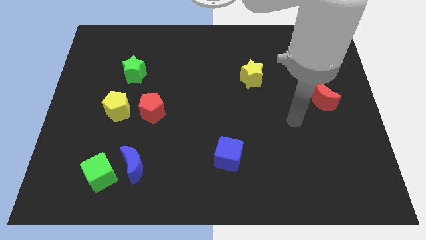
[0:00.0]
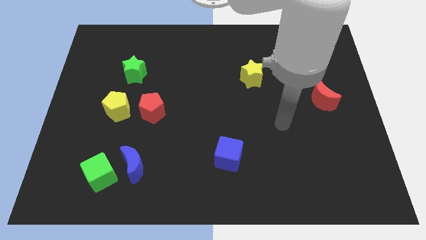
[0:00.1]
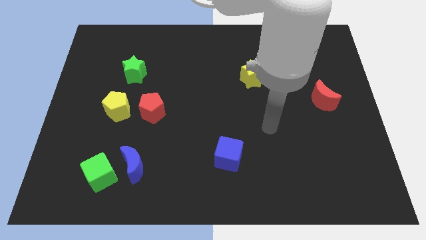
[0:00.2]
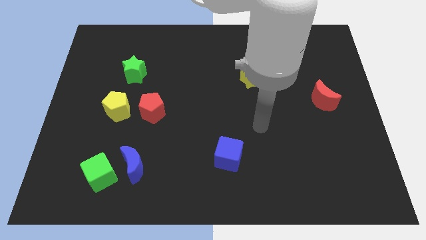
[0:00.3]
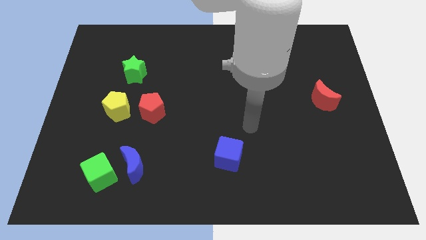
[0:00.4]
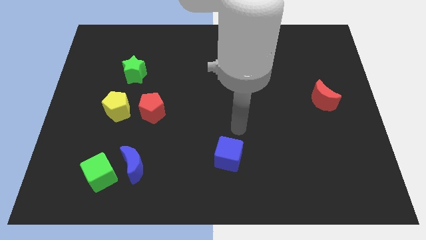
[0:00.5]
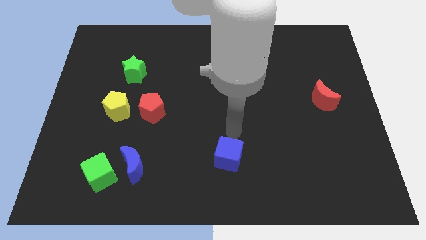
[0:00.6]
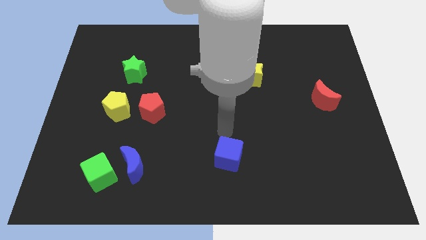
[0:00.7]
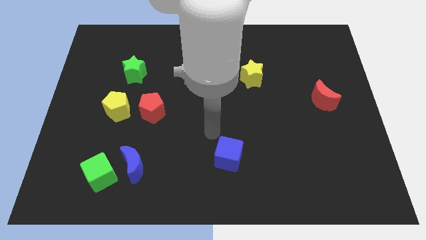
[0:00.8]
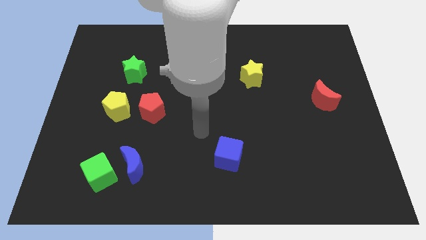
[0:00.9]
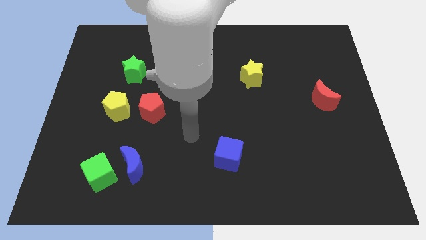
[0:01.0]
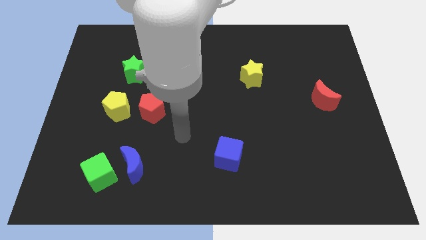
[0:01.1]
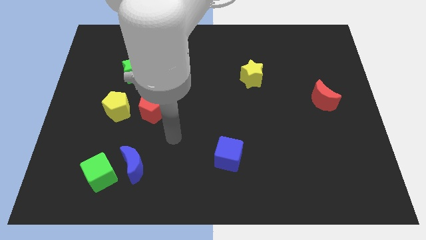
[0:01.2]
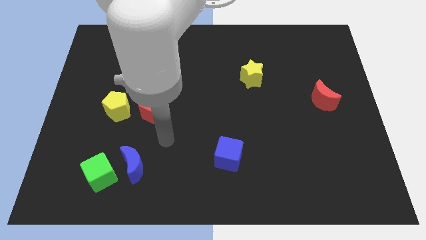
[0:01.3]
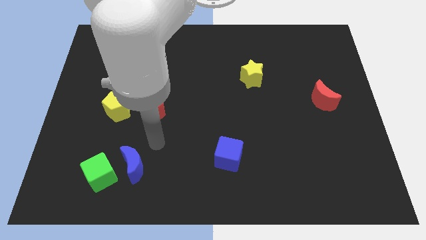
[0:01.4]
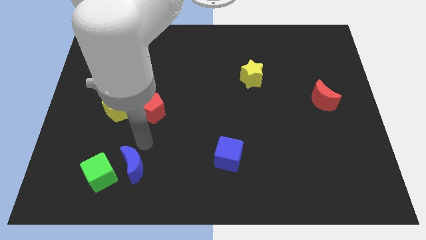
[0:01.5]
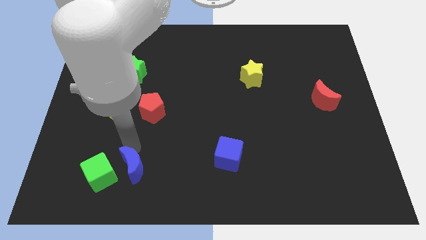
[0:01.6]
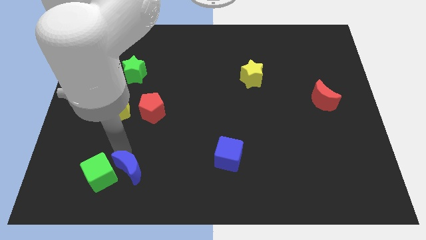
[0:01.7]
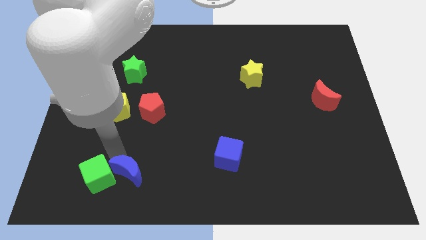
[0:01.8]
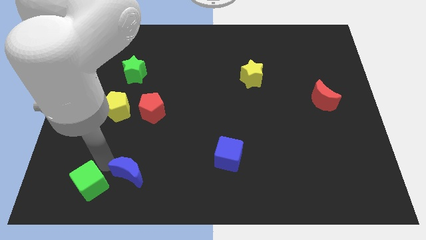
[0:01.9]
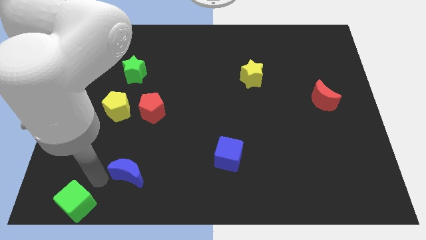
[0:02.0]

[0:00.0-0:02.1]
pull the blue moon apart from the green cube

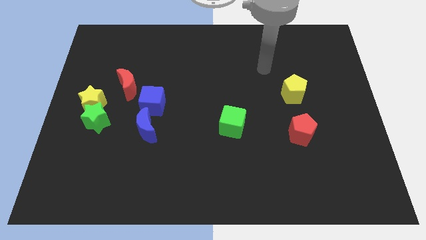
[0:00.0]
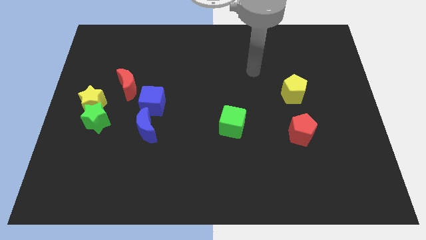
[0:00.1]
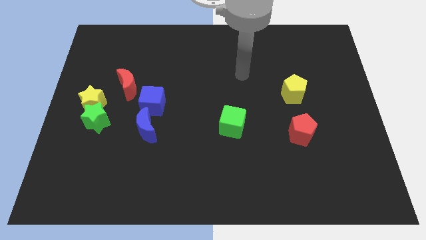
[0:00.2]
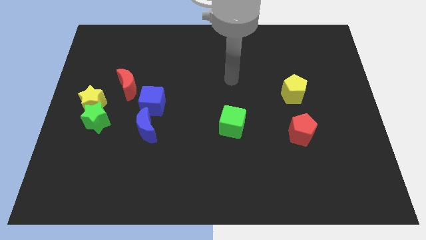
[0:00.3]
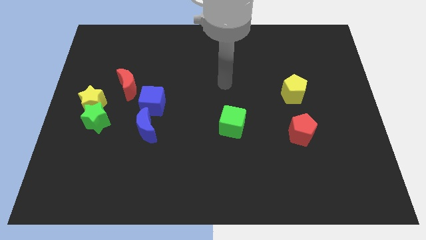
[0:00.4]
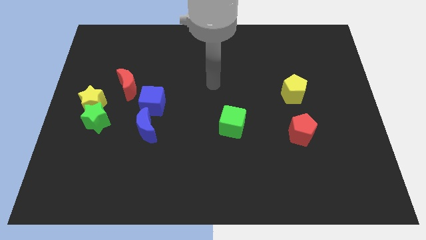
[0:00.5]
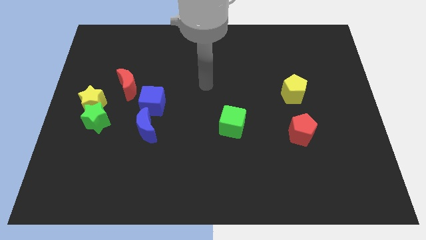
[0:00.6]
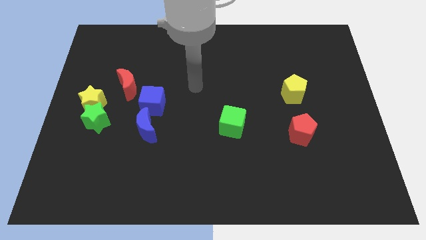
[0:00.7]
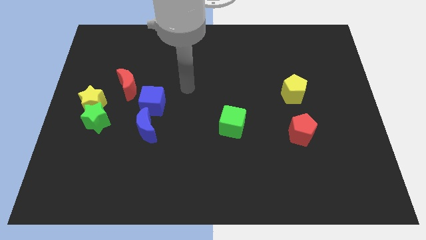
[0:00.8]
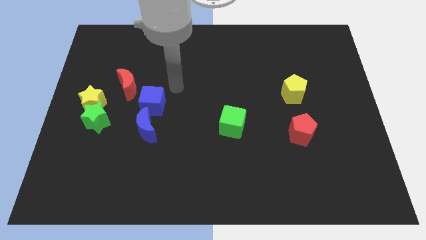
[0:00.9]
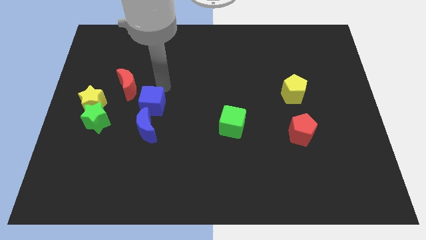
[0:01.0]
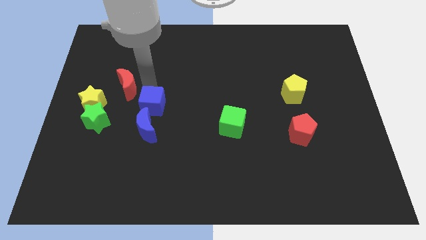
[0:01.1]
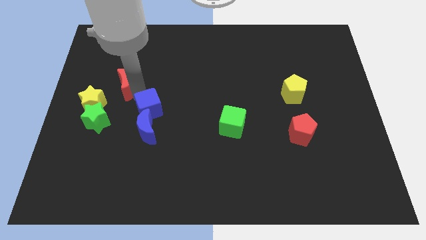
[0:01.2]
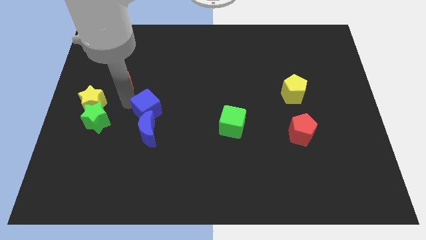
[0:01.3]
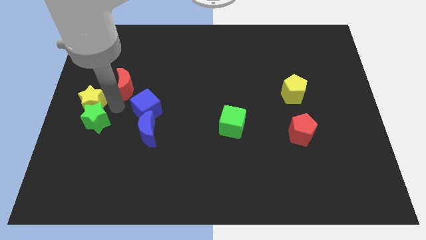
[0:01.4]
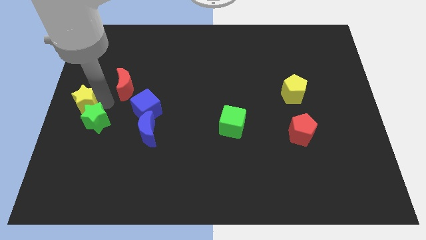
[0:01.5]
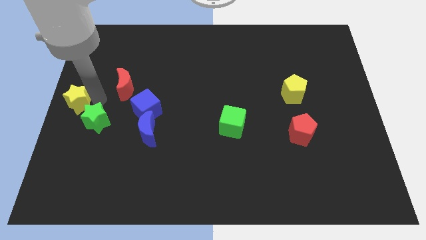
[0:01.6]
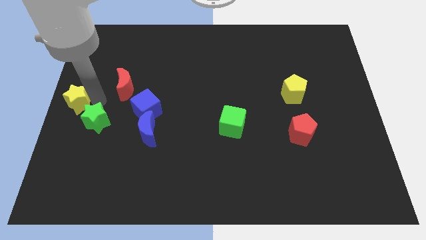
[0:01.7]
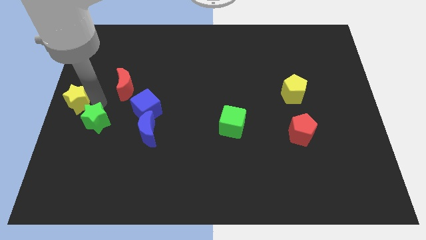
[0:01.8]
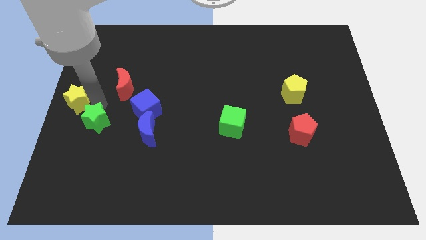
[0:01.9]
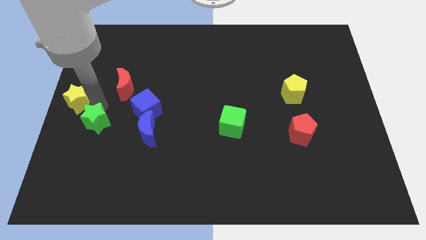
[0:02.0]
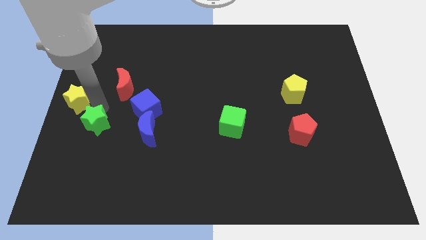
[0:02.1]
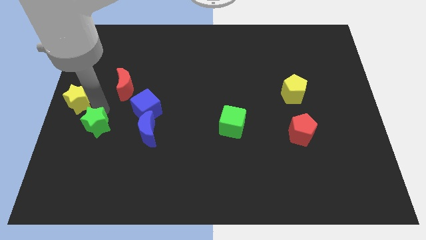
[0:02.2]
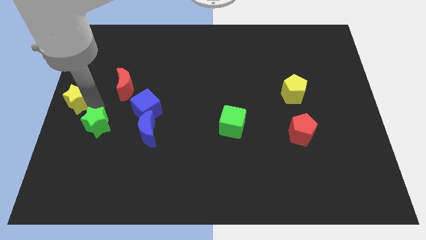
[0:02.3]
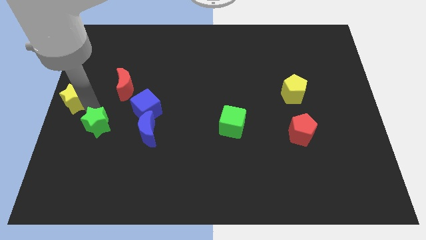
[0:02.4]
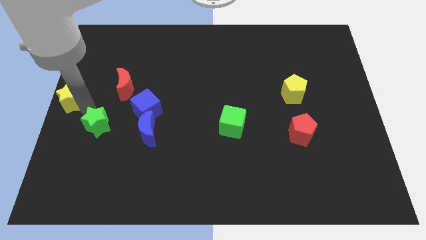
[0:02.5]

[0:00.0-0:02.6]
separate the green star from the yellow star

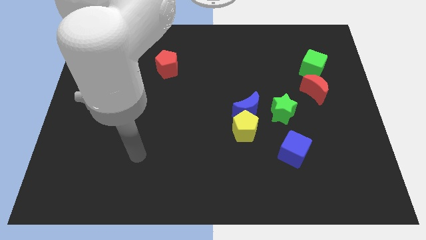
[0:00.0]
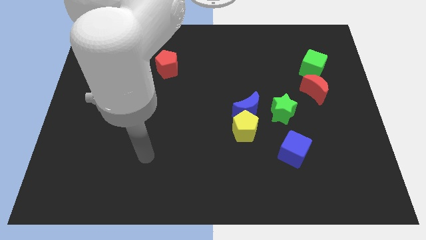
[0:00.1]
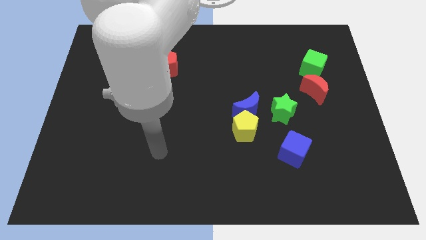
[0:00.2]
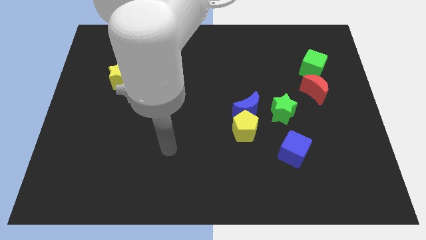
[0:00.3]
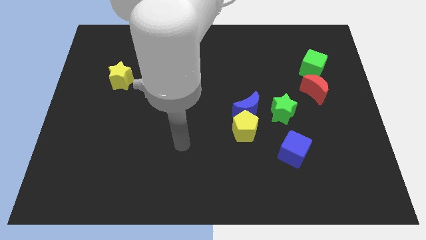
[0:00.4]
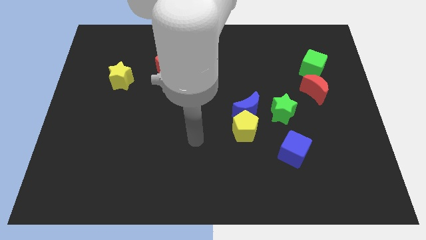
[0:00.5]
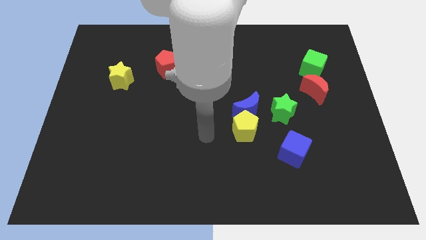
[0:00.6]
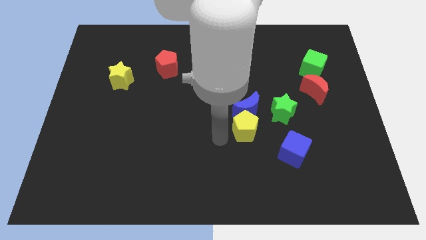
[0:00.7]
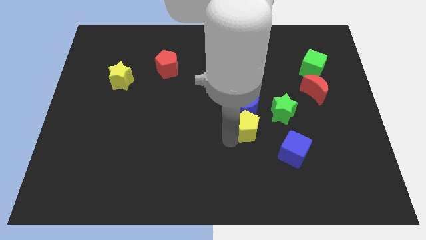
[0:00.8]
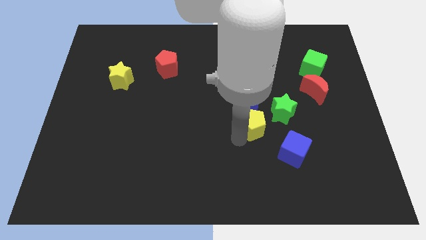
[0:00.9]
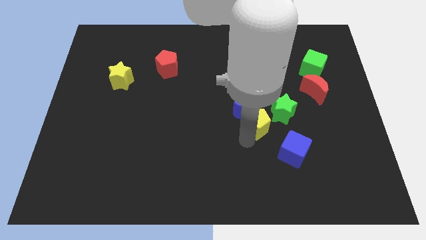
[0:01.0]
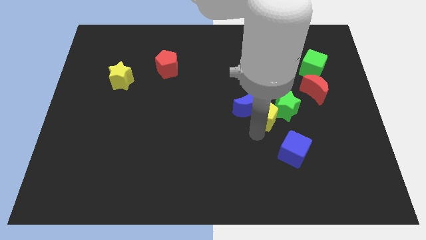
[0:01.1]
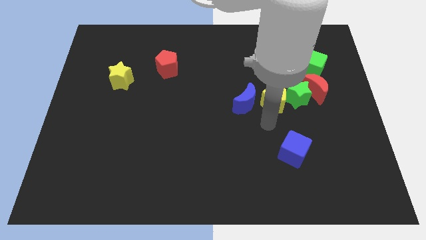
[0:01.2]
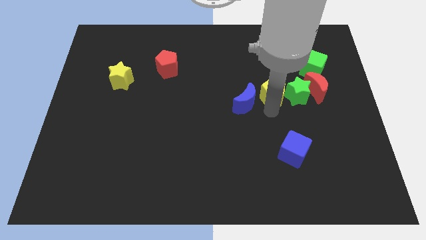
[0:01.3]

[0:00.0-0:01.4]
move the blue moon away from the yellow pentagon and green star

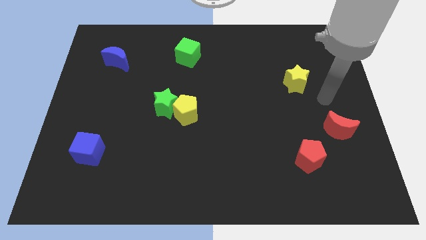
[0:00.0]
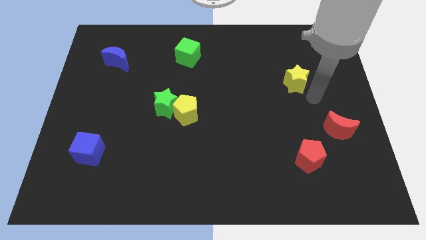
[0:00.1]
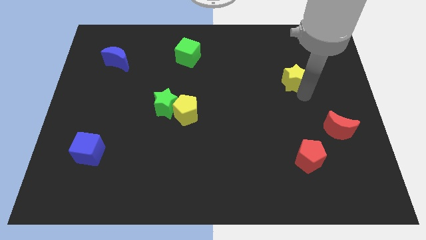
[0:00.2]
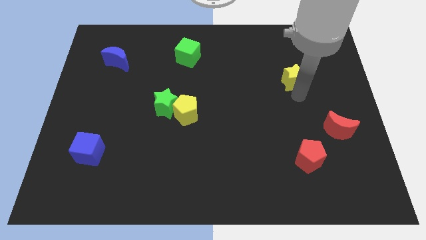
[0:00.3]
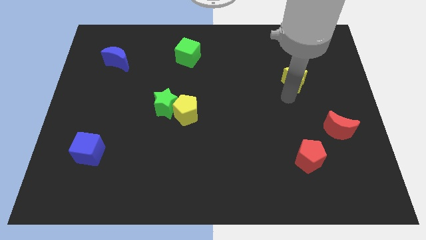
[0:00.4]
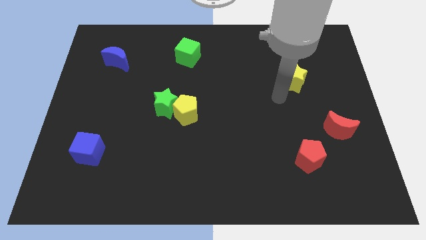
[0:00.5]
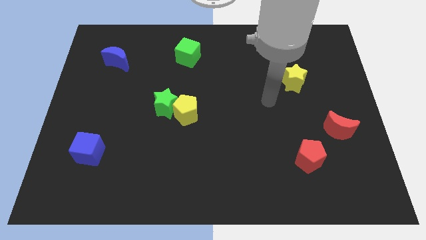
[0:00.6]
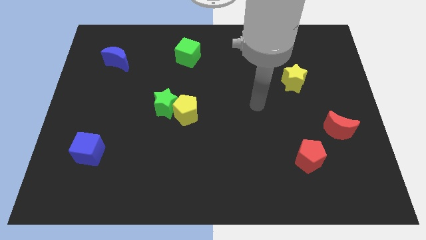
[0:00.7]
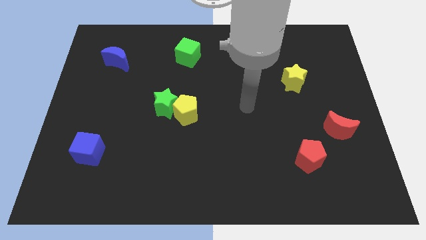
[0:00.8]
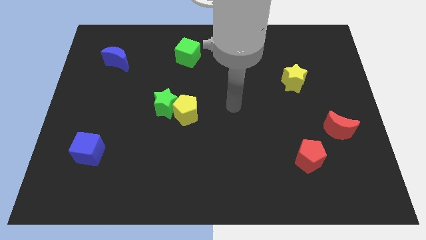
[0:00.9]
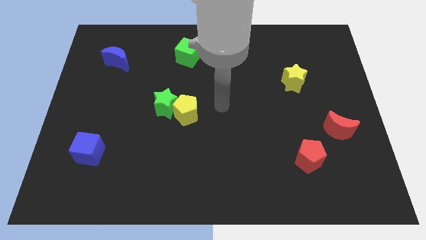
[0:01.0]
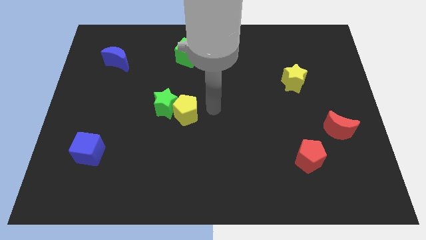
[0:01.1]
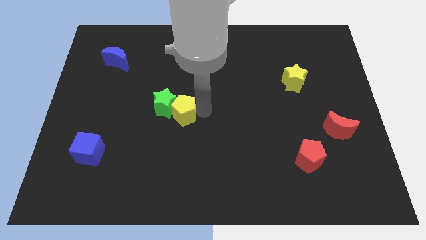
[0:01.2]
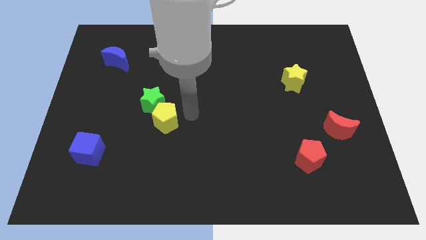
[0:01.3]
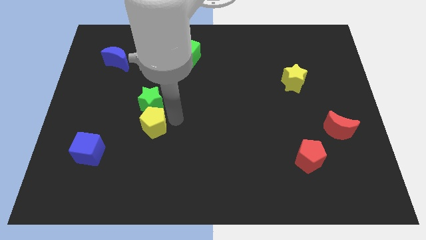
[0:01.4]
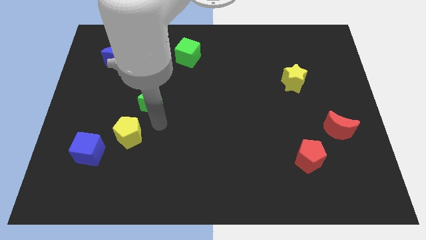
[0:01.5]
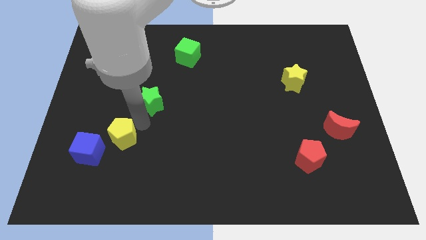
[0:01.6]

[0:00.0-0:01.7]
pull the green star apart from the yellow pentagon

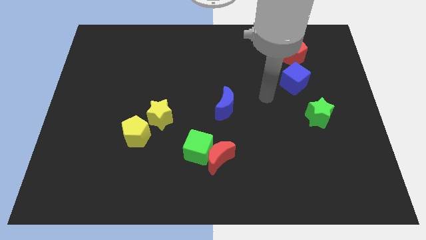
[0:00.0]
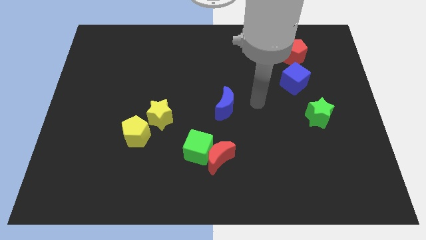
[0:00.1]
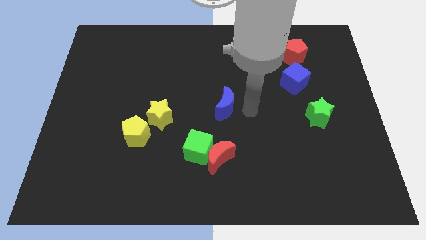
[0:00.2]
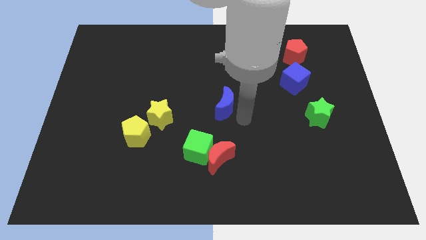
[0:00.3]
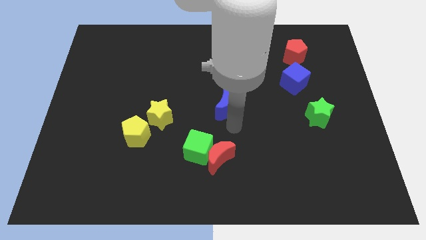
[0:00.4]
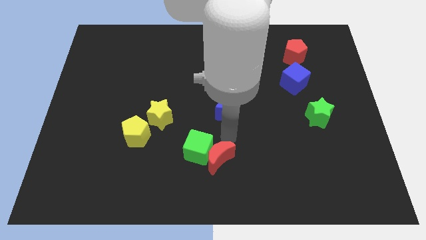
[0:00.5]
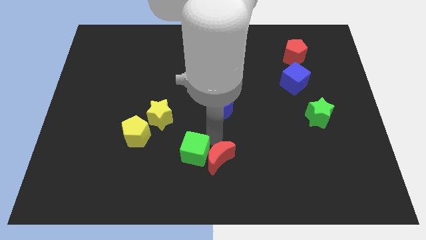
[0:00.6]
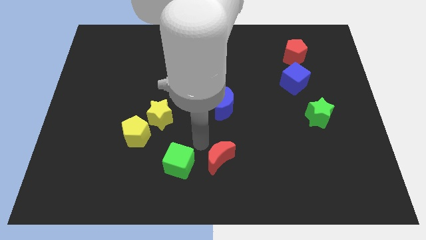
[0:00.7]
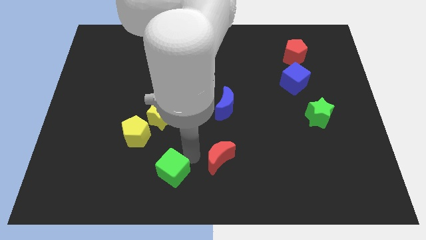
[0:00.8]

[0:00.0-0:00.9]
separate the red moon from the green cube

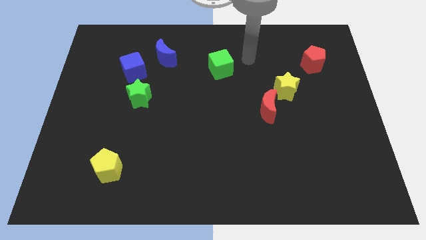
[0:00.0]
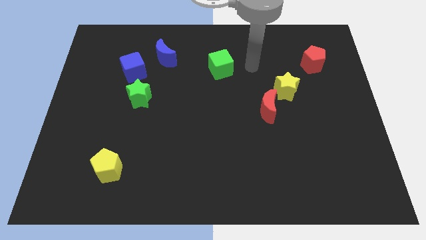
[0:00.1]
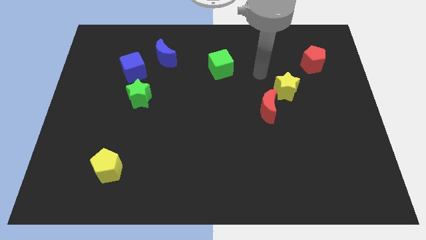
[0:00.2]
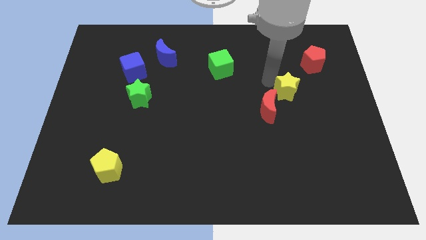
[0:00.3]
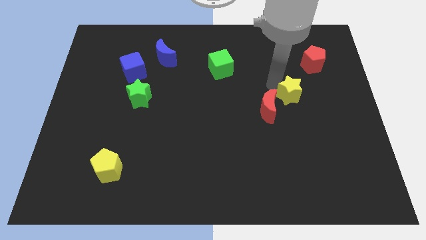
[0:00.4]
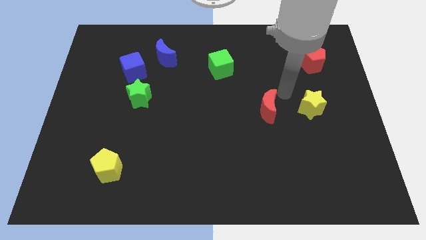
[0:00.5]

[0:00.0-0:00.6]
pull the red moon apart from the yellow star

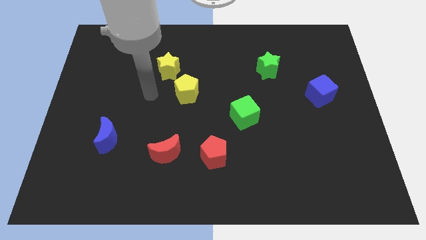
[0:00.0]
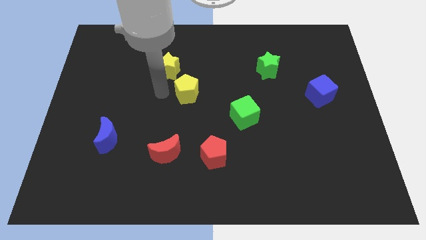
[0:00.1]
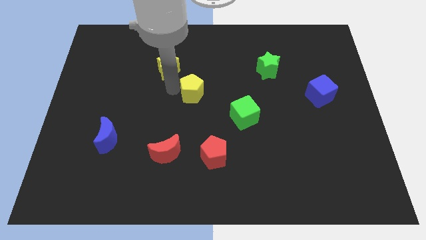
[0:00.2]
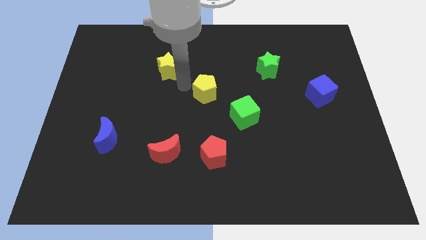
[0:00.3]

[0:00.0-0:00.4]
pull the yellow star apart from the yellow pentagon
